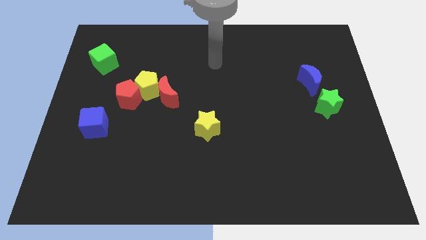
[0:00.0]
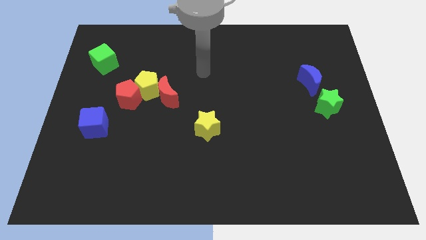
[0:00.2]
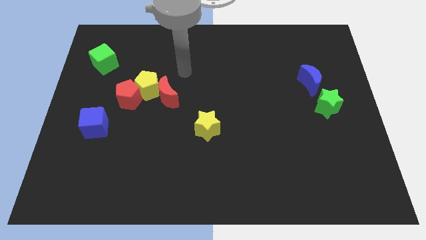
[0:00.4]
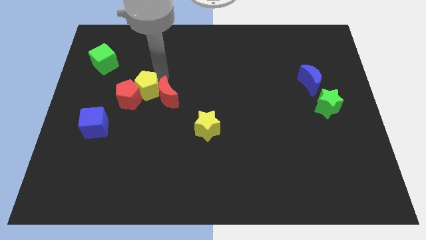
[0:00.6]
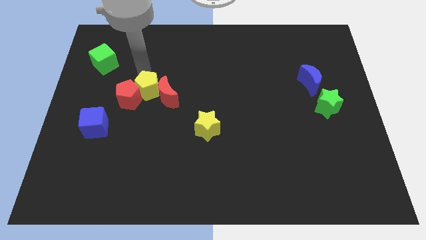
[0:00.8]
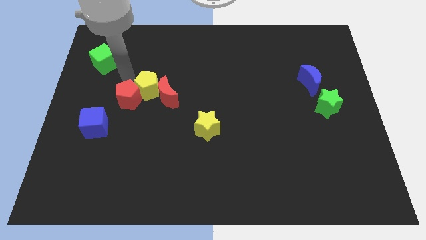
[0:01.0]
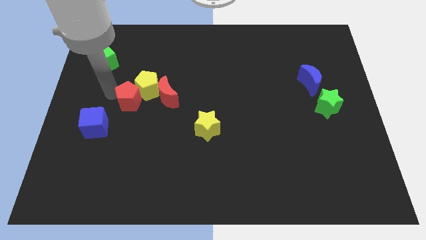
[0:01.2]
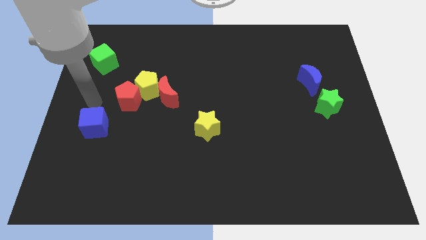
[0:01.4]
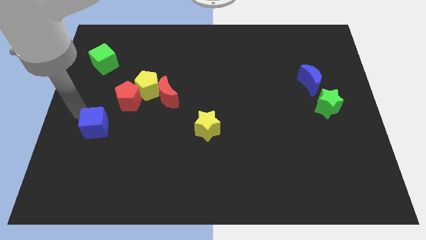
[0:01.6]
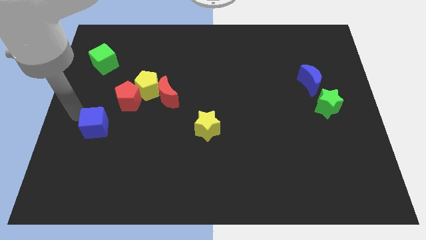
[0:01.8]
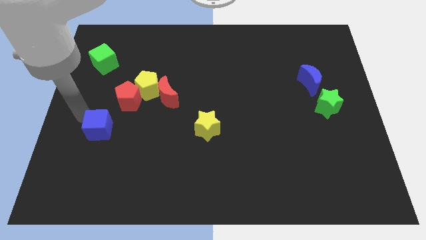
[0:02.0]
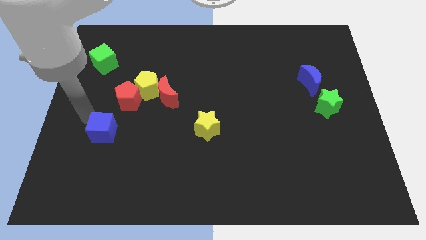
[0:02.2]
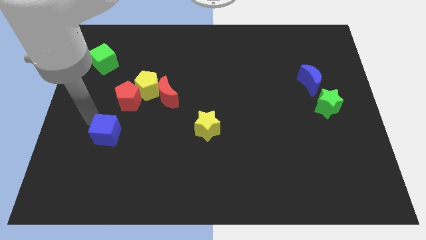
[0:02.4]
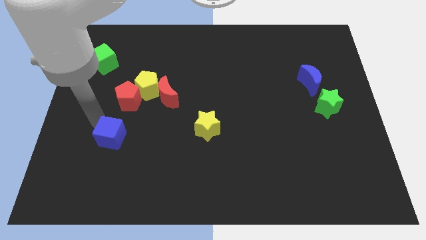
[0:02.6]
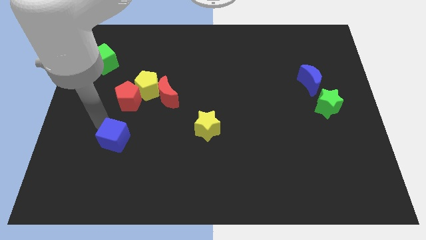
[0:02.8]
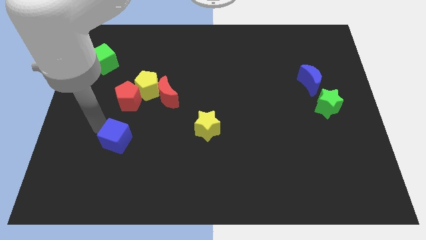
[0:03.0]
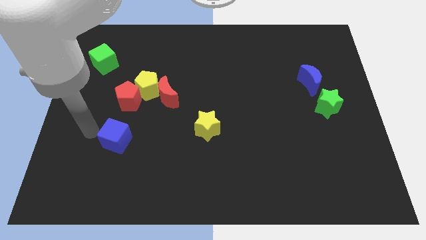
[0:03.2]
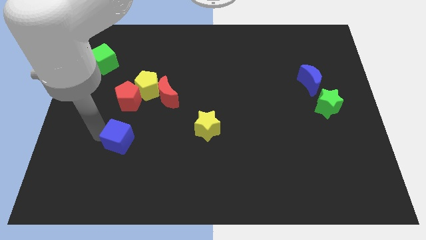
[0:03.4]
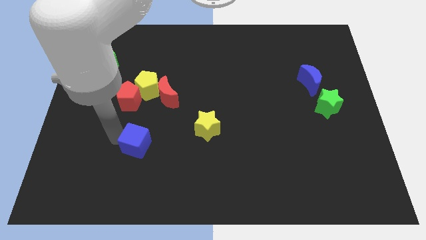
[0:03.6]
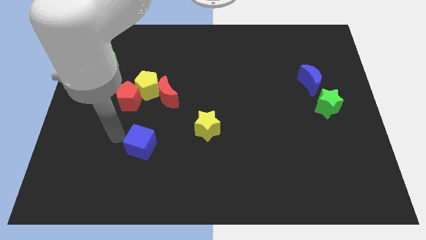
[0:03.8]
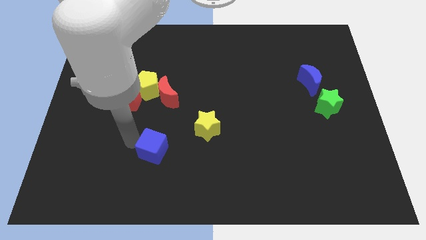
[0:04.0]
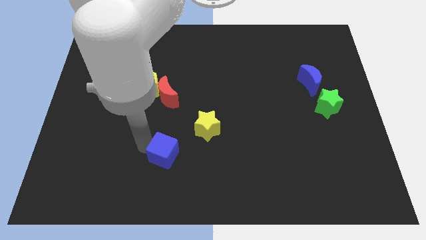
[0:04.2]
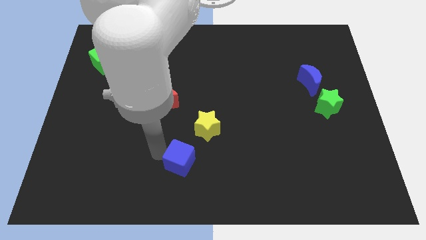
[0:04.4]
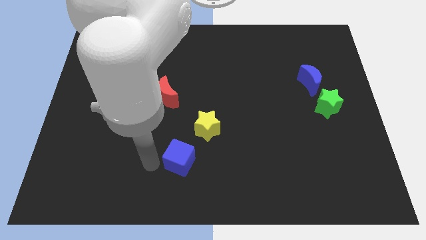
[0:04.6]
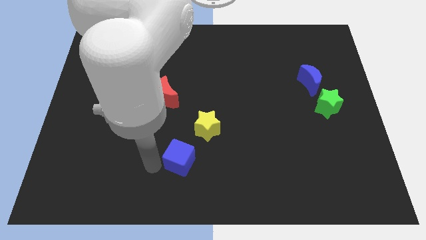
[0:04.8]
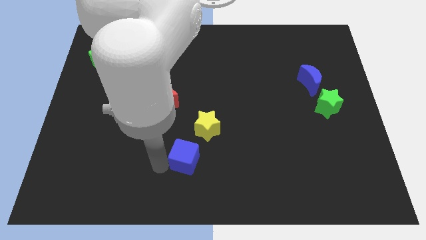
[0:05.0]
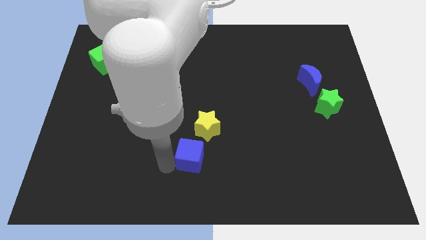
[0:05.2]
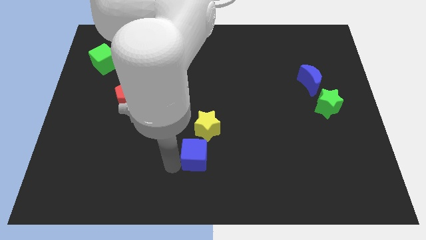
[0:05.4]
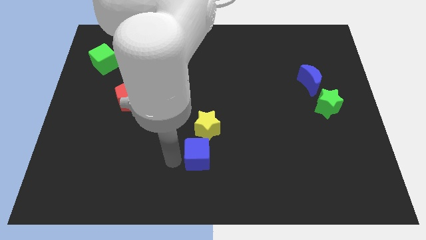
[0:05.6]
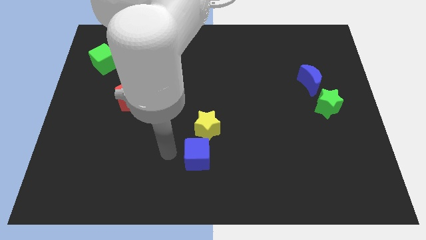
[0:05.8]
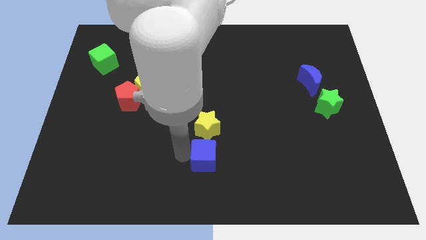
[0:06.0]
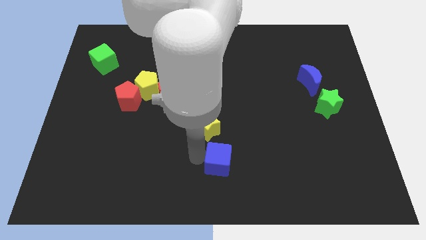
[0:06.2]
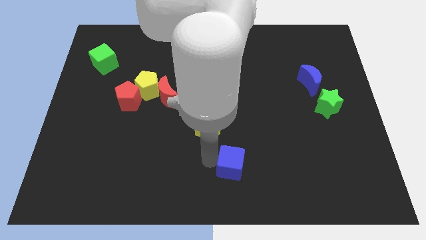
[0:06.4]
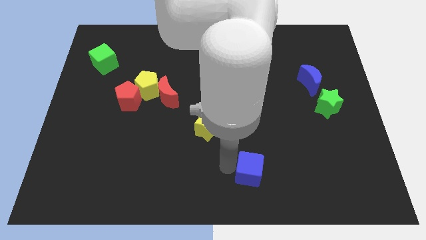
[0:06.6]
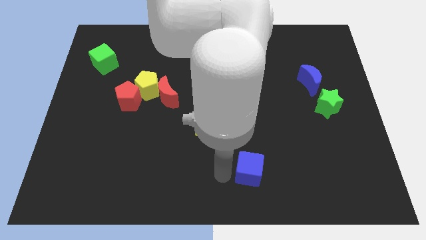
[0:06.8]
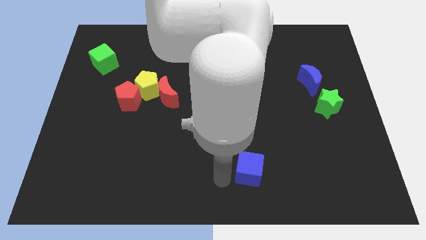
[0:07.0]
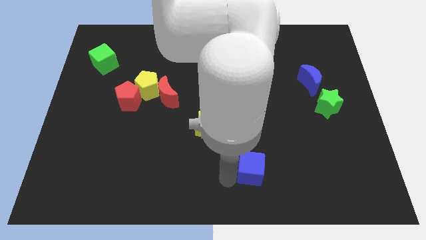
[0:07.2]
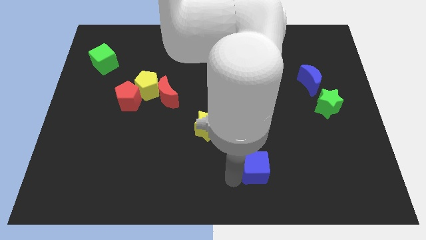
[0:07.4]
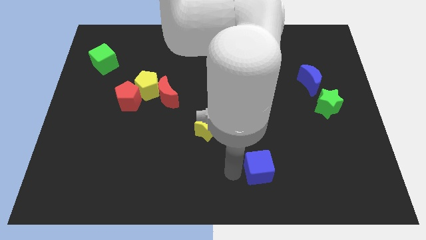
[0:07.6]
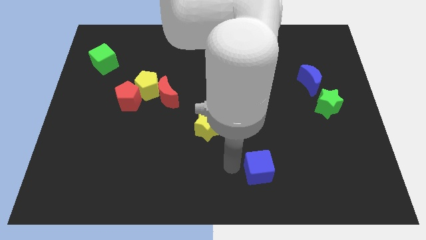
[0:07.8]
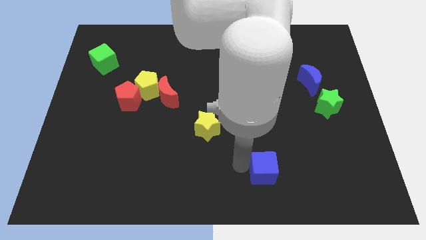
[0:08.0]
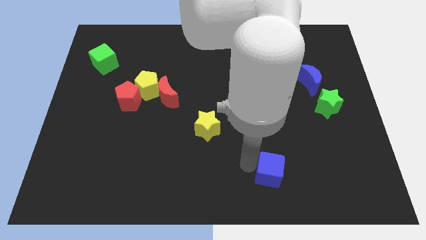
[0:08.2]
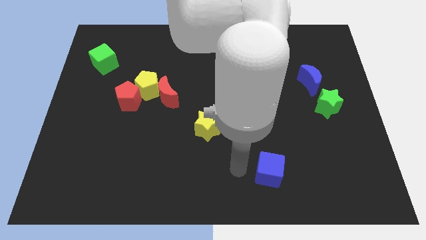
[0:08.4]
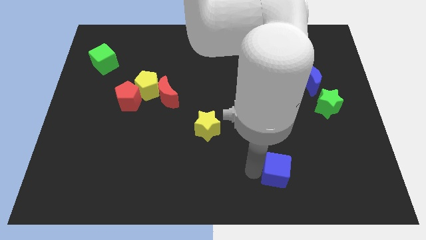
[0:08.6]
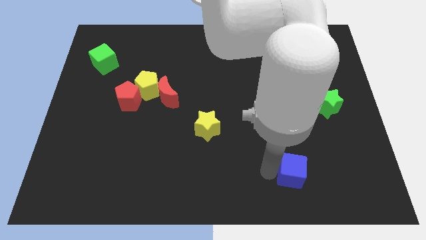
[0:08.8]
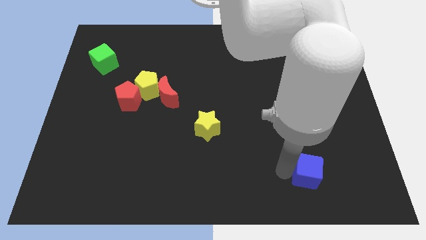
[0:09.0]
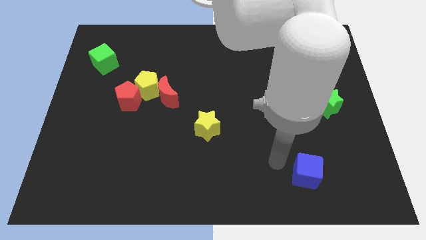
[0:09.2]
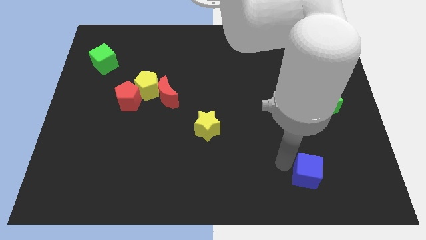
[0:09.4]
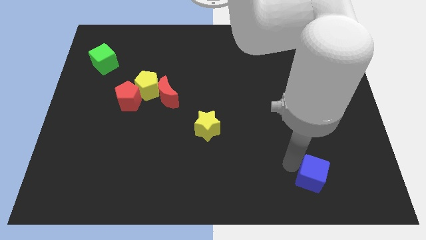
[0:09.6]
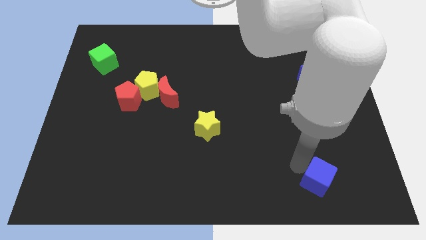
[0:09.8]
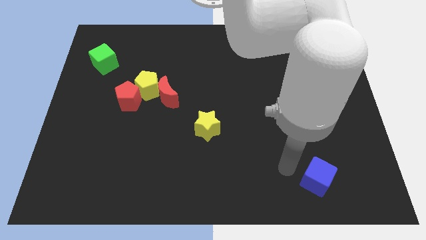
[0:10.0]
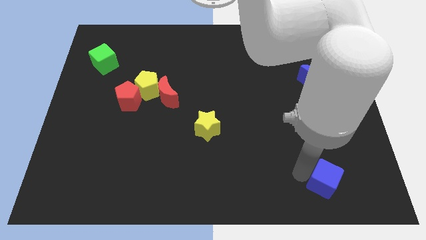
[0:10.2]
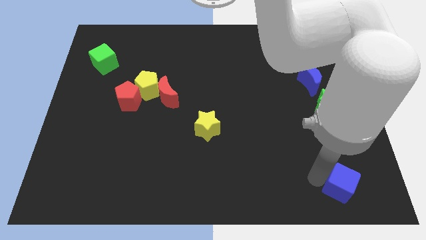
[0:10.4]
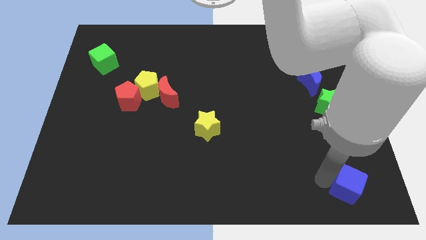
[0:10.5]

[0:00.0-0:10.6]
slide the blue cube to the bottom right

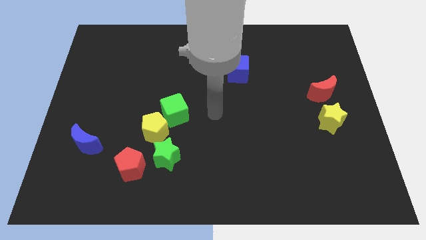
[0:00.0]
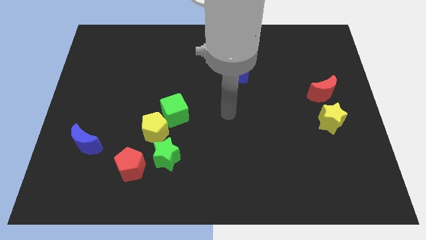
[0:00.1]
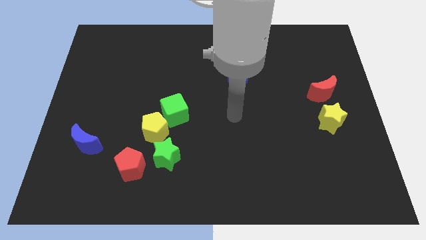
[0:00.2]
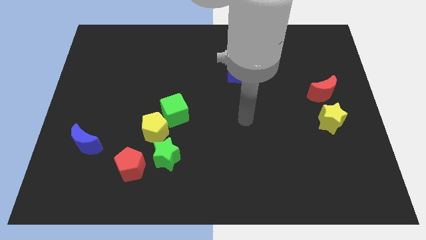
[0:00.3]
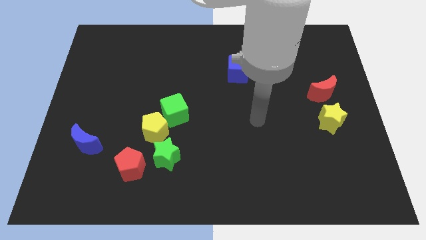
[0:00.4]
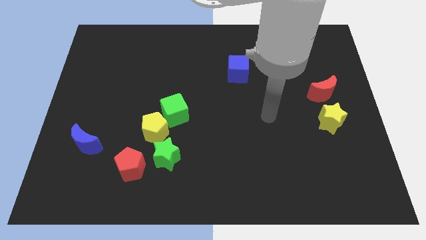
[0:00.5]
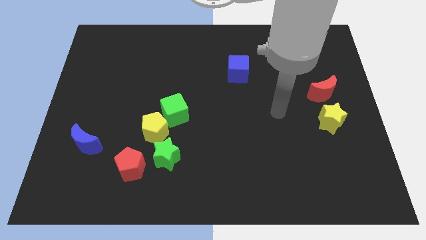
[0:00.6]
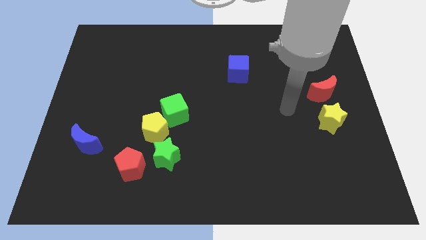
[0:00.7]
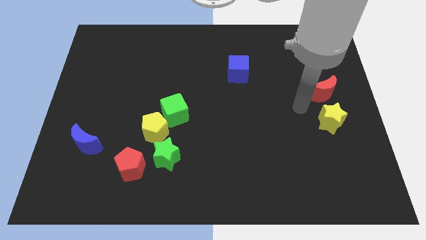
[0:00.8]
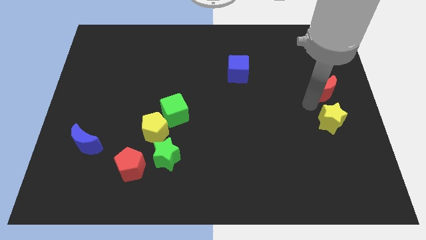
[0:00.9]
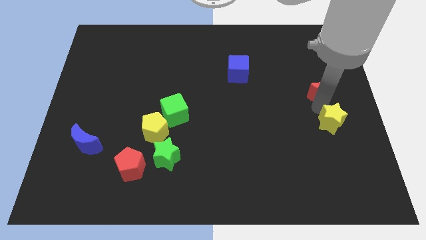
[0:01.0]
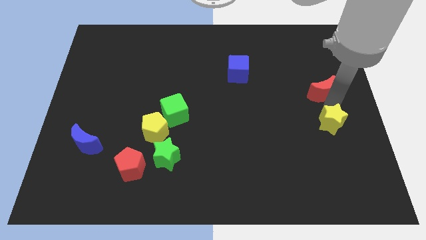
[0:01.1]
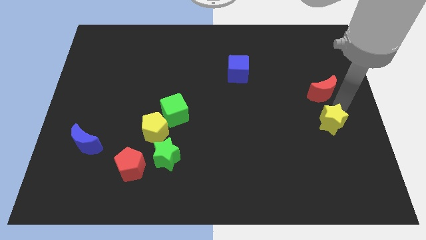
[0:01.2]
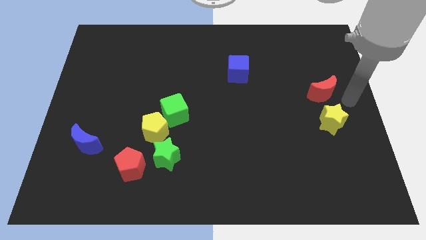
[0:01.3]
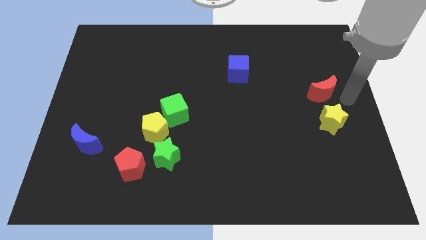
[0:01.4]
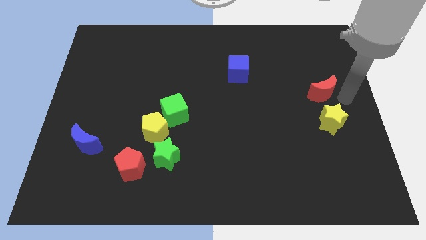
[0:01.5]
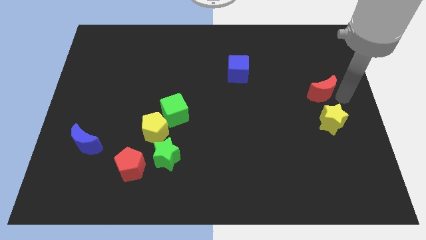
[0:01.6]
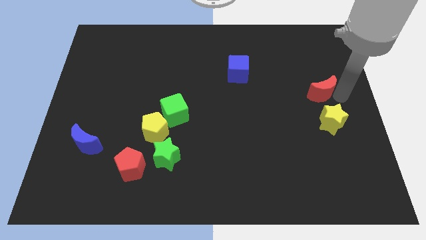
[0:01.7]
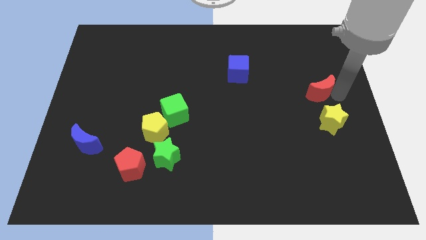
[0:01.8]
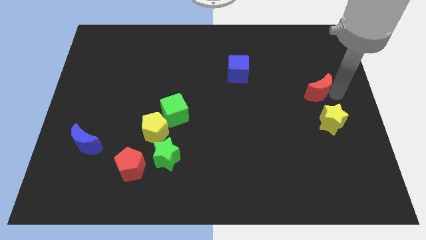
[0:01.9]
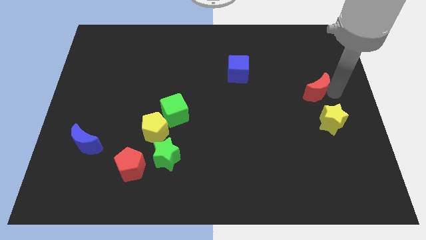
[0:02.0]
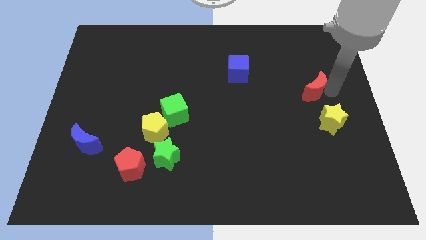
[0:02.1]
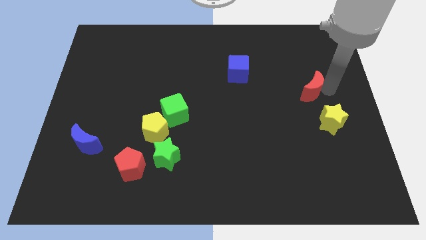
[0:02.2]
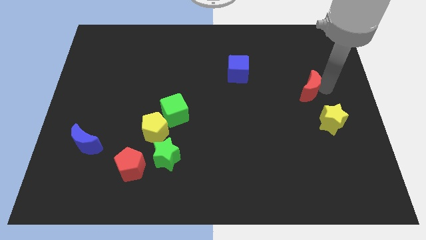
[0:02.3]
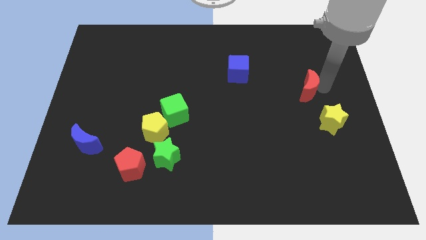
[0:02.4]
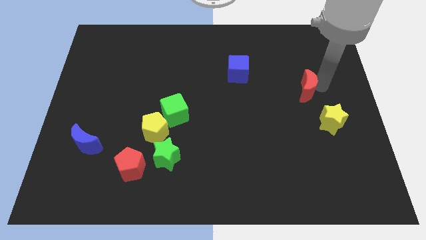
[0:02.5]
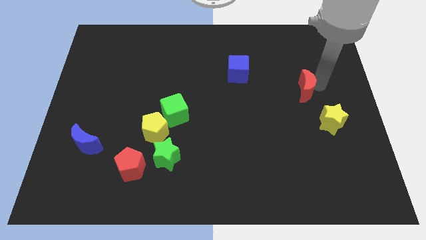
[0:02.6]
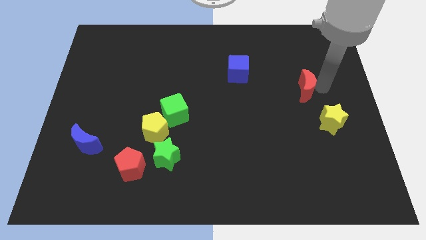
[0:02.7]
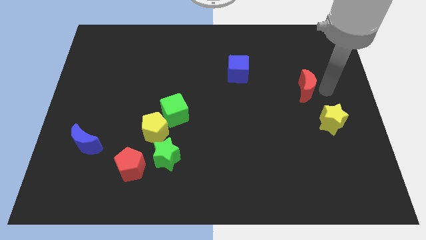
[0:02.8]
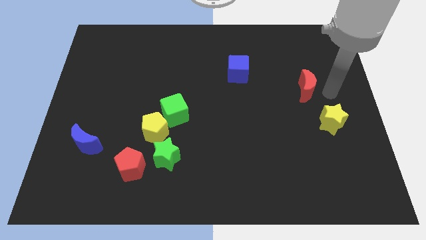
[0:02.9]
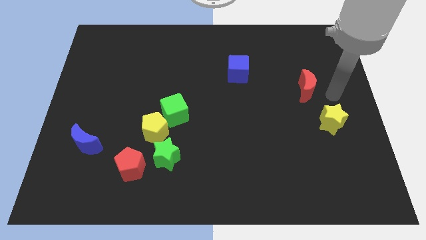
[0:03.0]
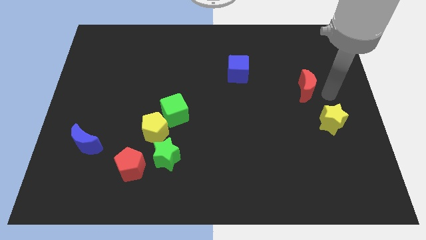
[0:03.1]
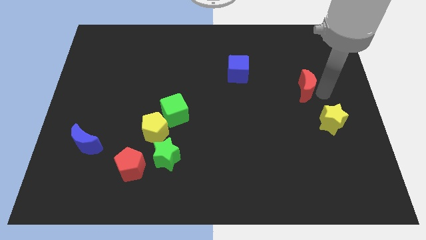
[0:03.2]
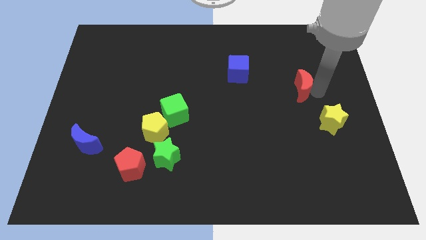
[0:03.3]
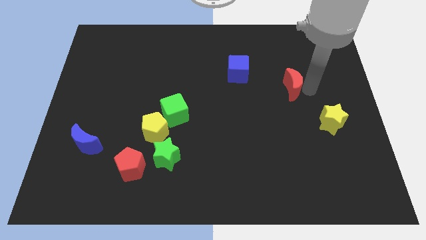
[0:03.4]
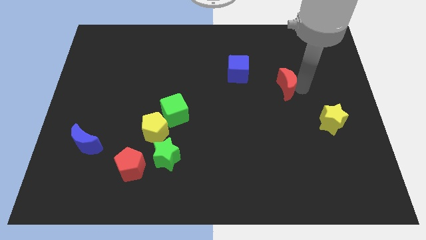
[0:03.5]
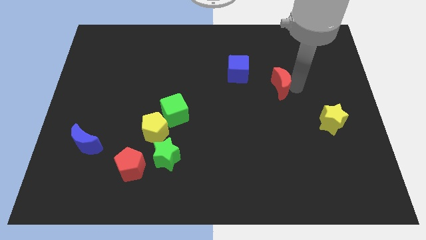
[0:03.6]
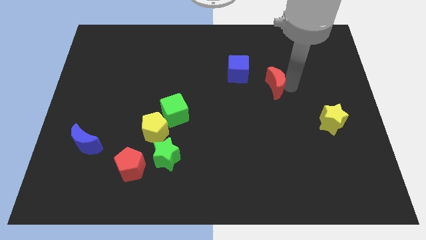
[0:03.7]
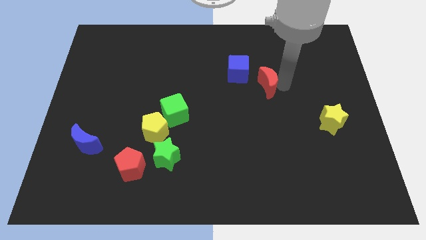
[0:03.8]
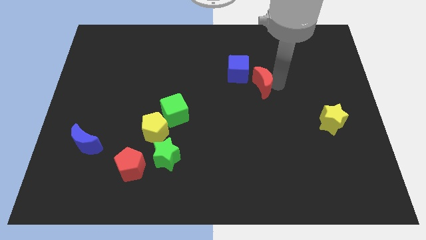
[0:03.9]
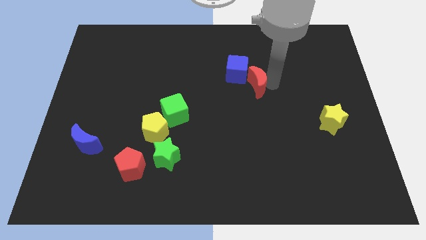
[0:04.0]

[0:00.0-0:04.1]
slide the red moon to the middle of the board
